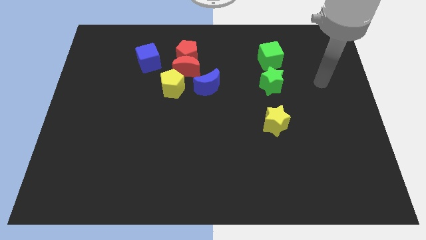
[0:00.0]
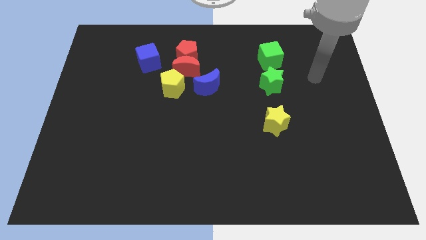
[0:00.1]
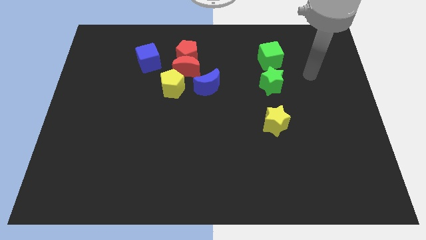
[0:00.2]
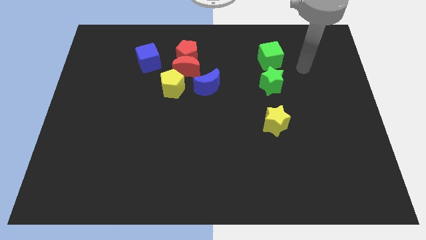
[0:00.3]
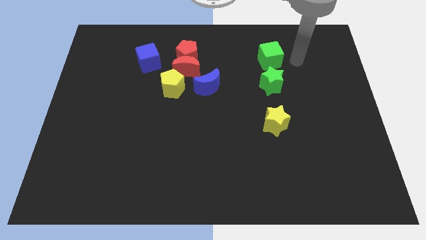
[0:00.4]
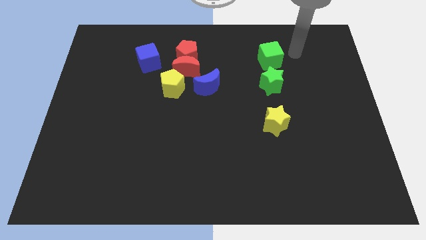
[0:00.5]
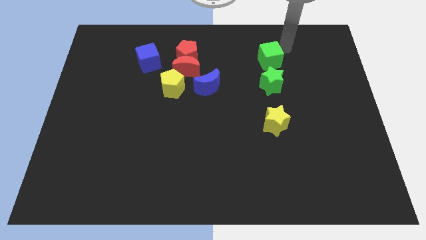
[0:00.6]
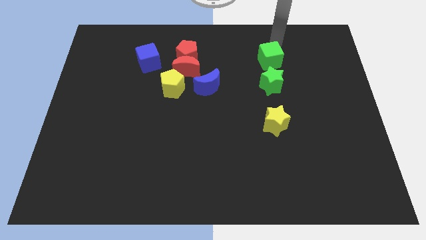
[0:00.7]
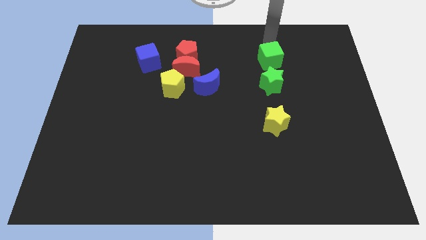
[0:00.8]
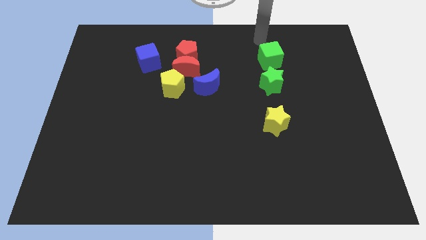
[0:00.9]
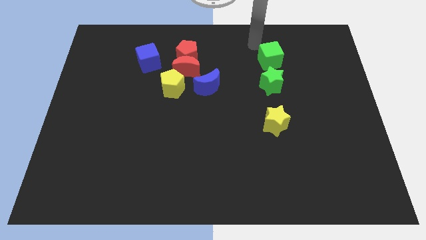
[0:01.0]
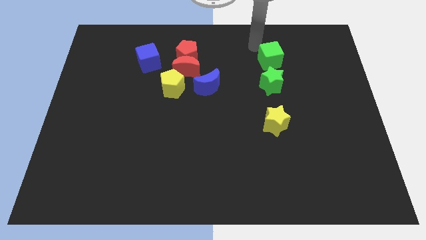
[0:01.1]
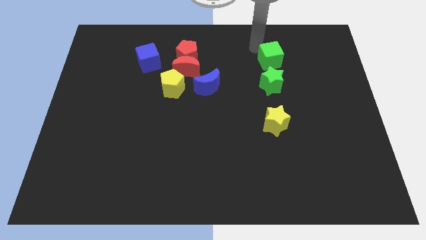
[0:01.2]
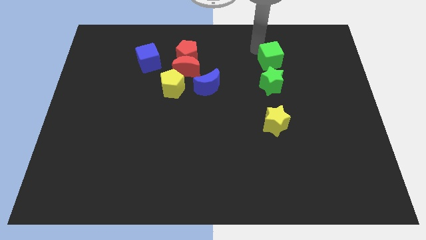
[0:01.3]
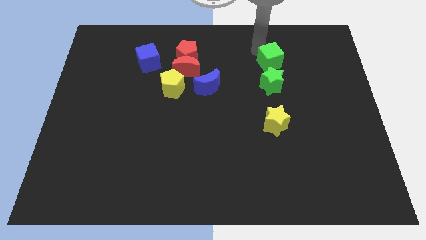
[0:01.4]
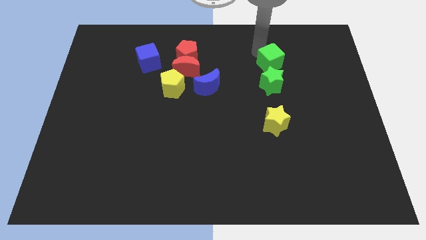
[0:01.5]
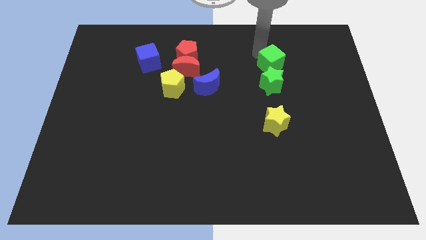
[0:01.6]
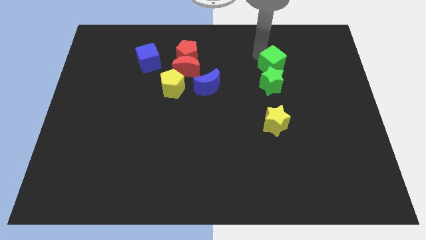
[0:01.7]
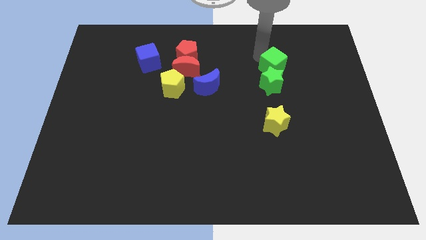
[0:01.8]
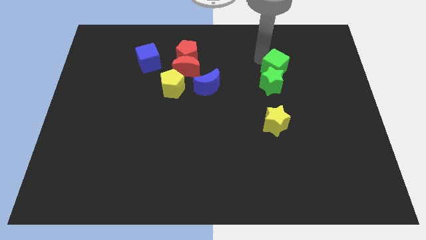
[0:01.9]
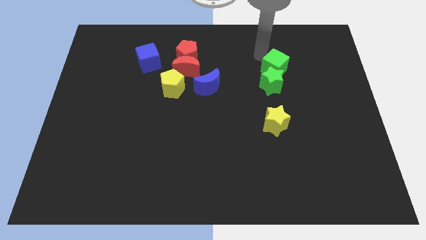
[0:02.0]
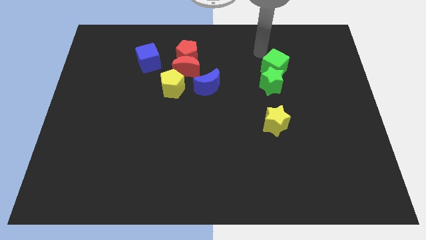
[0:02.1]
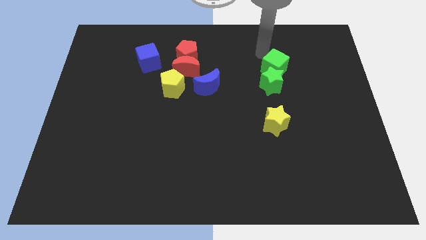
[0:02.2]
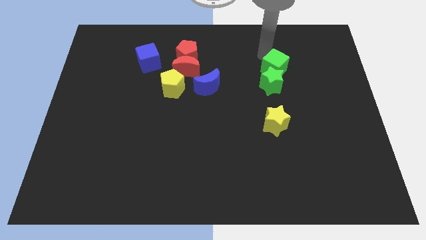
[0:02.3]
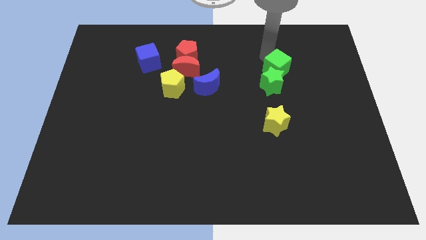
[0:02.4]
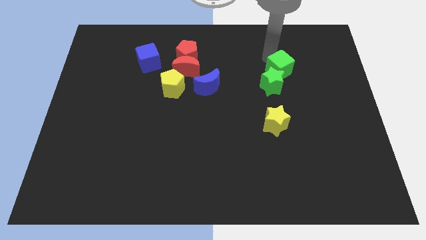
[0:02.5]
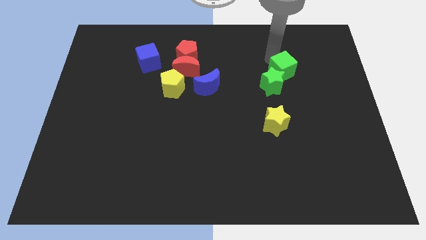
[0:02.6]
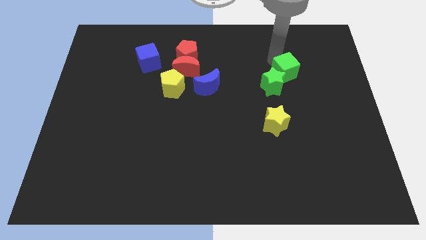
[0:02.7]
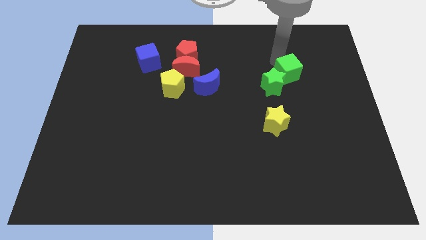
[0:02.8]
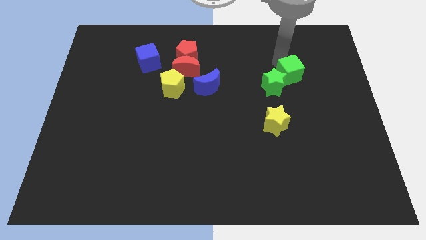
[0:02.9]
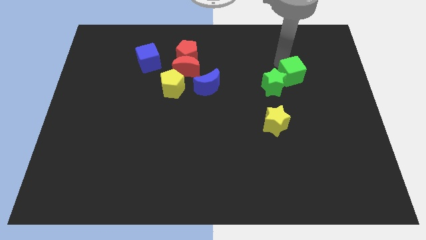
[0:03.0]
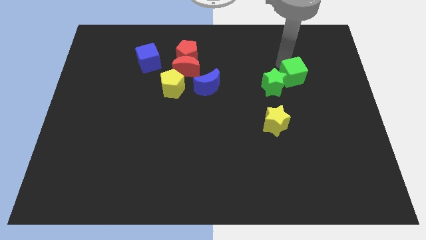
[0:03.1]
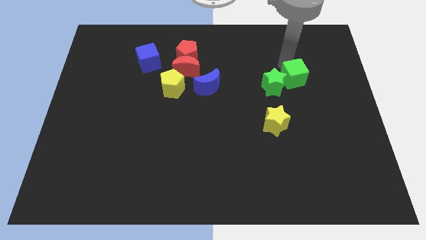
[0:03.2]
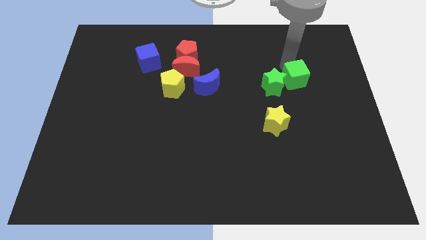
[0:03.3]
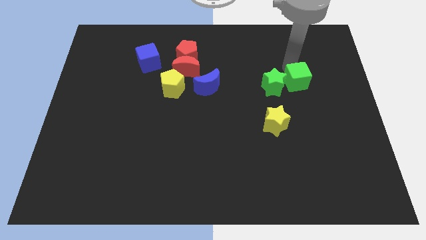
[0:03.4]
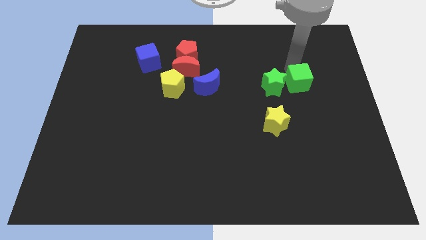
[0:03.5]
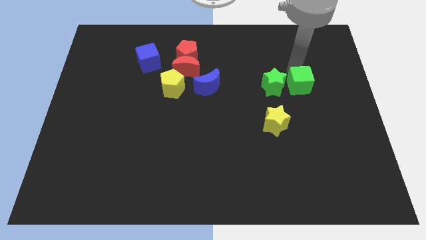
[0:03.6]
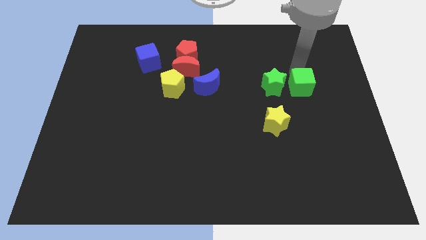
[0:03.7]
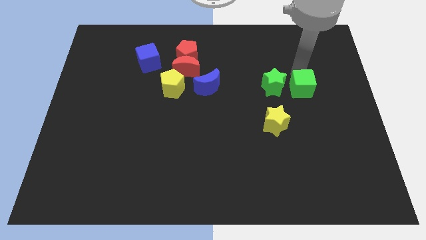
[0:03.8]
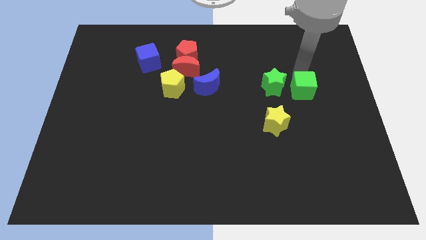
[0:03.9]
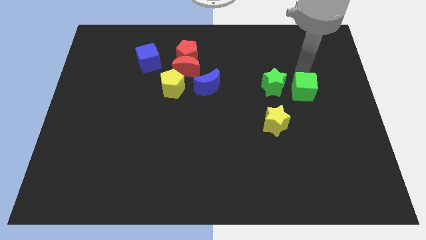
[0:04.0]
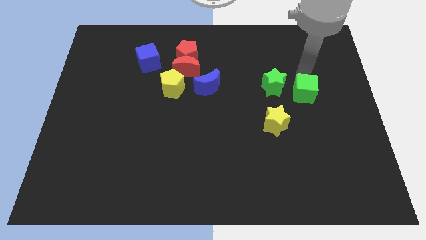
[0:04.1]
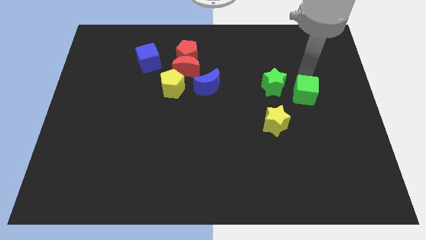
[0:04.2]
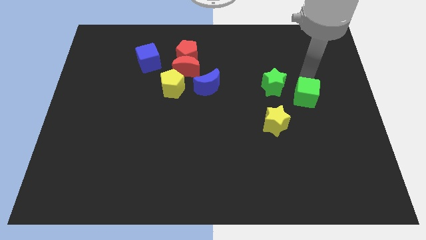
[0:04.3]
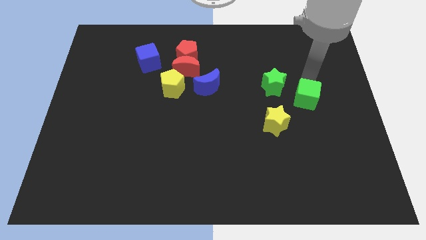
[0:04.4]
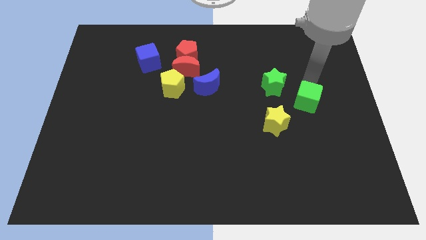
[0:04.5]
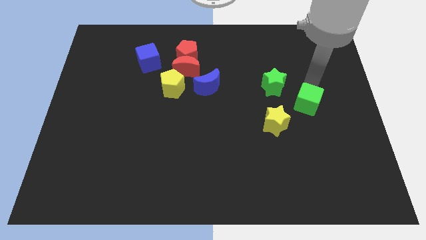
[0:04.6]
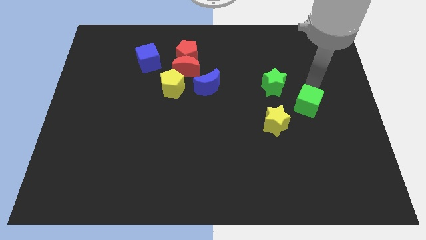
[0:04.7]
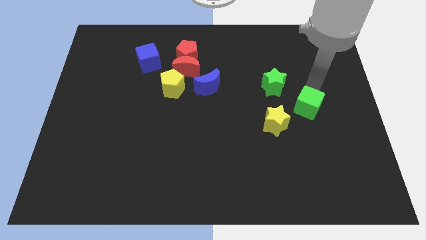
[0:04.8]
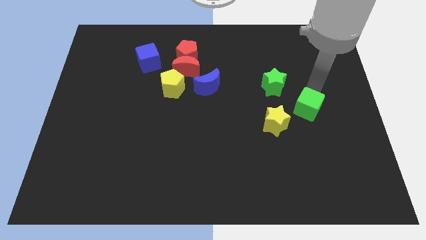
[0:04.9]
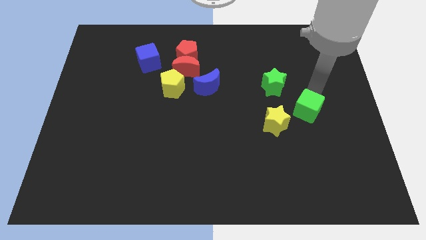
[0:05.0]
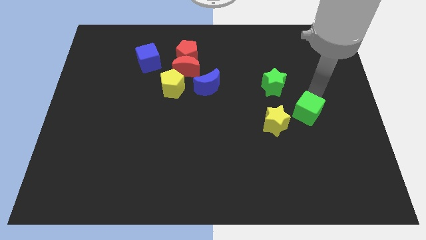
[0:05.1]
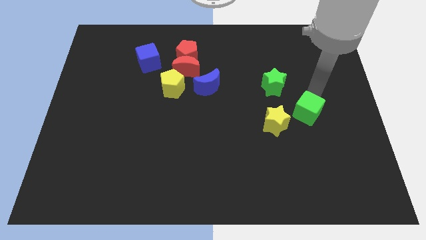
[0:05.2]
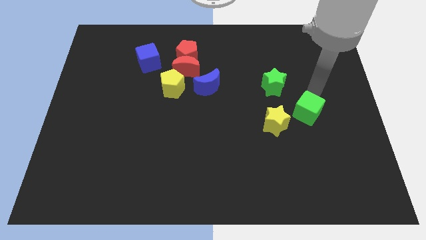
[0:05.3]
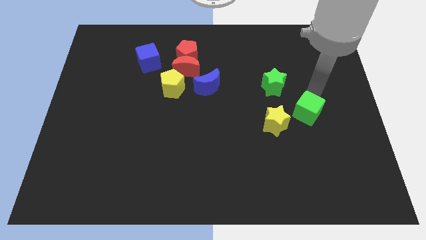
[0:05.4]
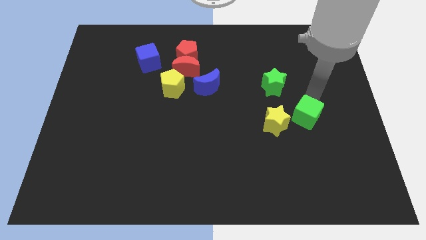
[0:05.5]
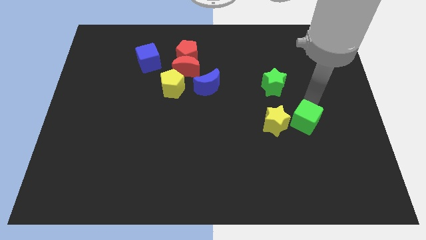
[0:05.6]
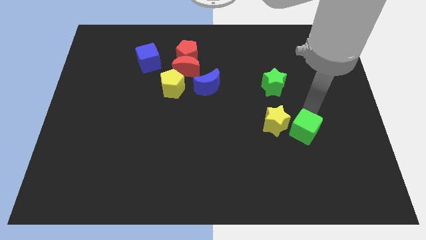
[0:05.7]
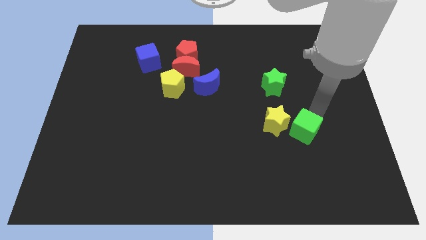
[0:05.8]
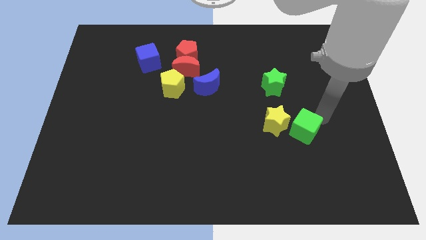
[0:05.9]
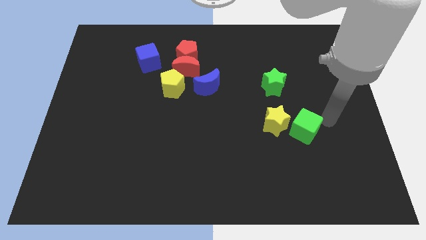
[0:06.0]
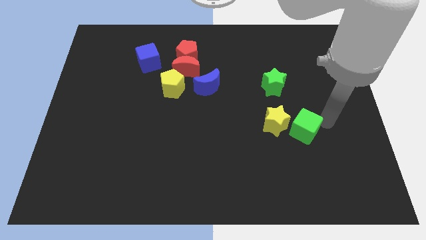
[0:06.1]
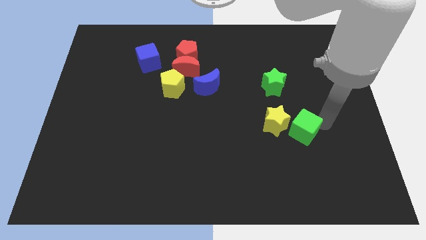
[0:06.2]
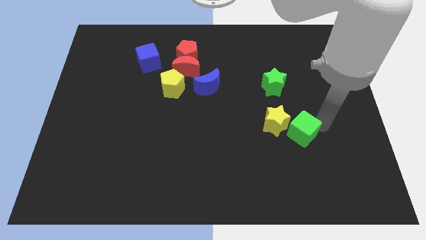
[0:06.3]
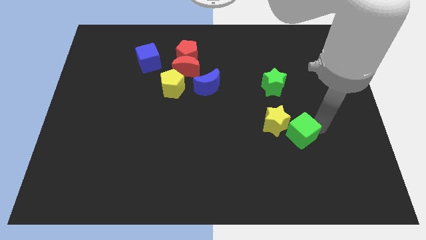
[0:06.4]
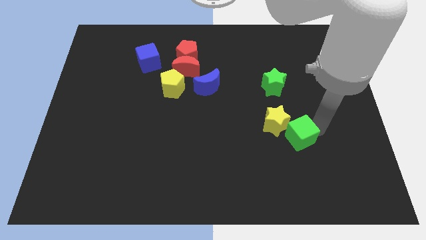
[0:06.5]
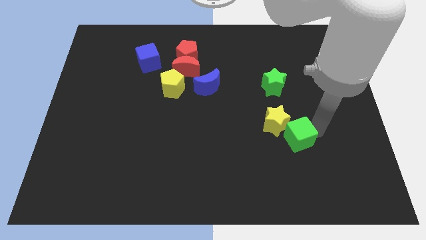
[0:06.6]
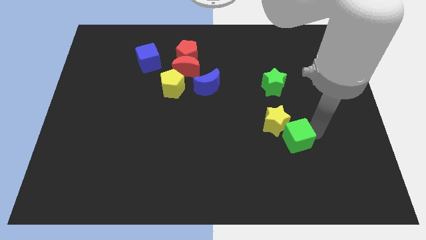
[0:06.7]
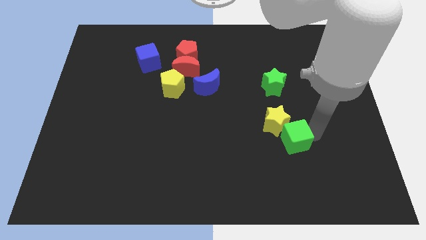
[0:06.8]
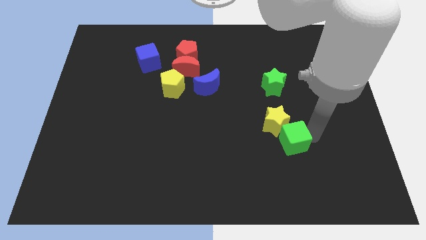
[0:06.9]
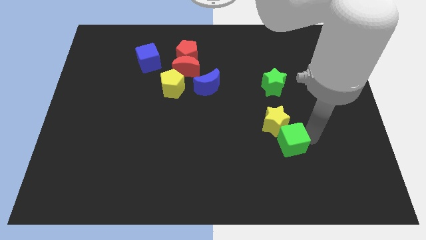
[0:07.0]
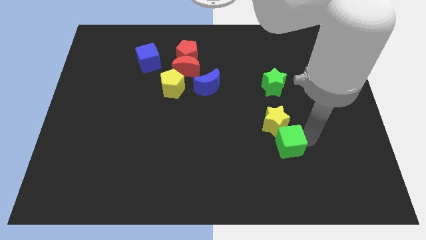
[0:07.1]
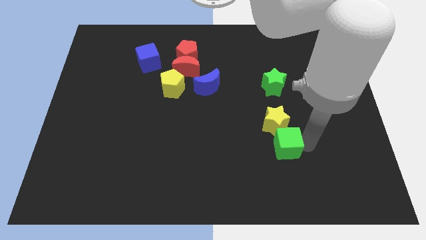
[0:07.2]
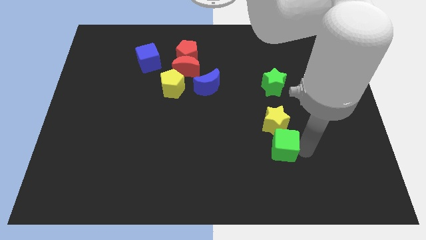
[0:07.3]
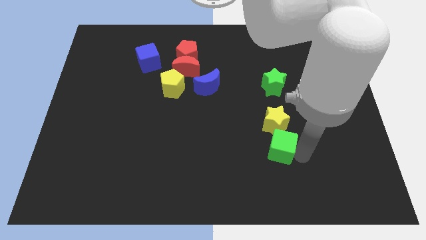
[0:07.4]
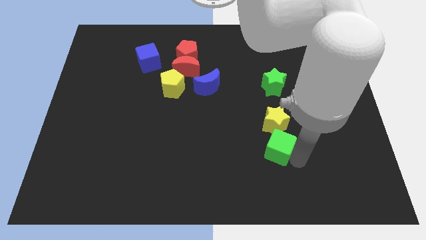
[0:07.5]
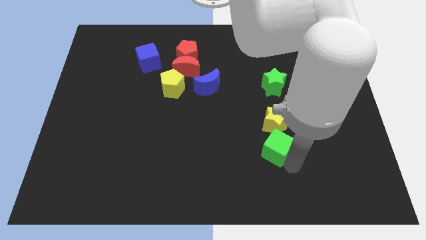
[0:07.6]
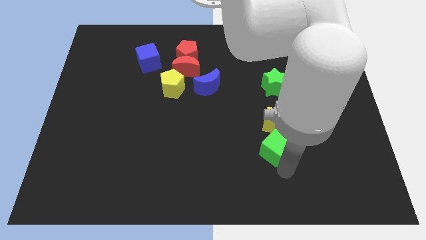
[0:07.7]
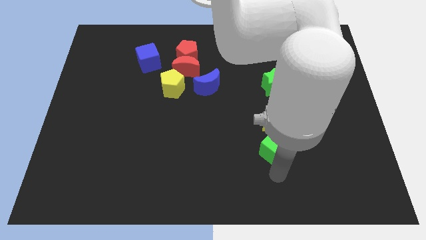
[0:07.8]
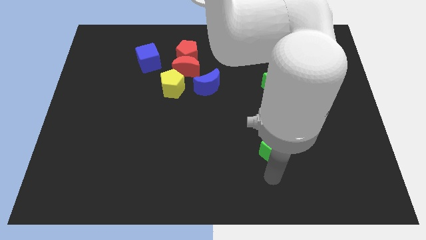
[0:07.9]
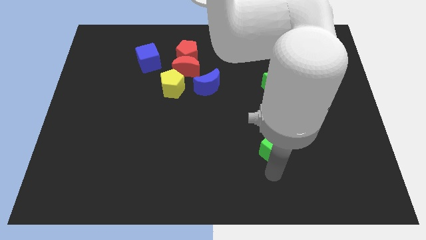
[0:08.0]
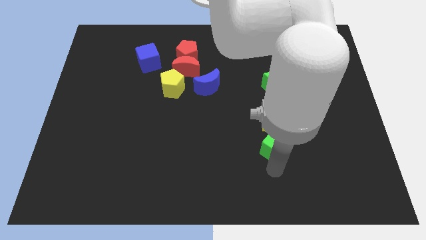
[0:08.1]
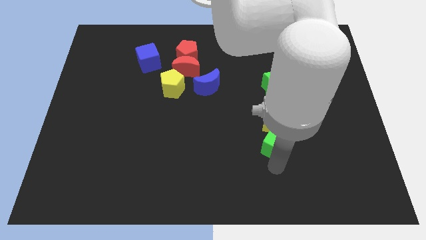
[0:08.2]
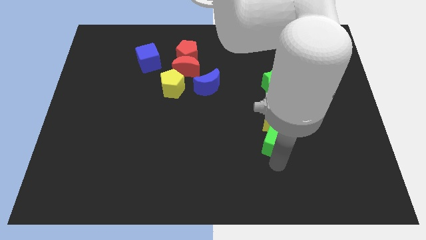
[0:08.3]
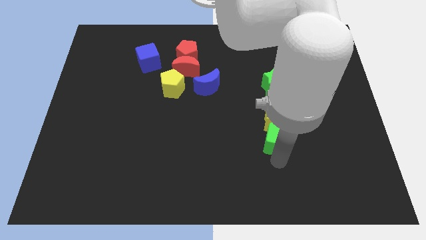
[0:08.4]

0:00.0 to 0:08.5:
move the green cube to the bottom side of the green star
